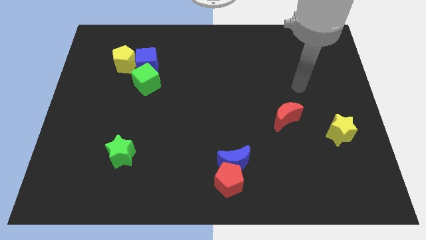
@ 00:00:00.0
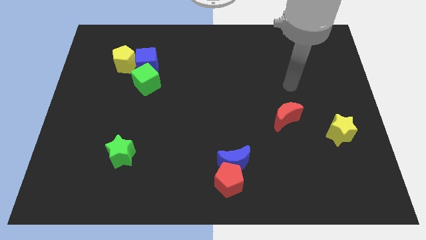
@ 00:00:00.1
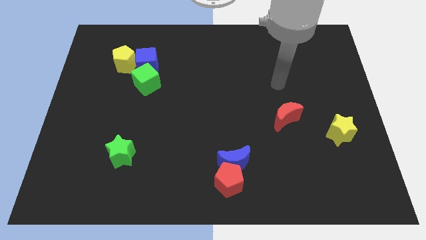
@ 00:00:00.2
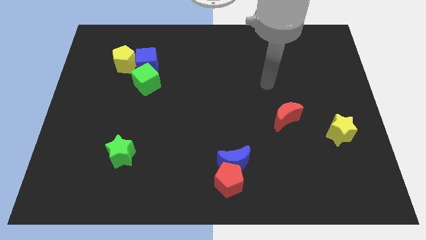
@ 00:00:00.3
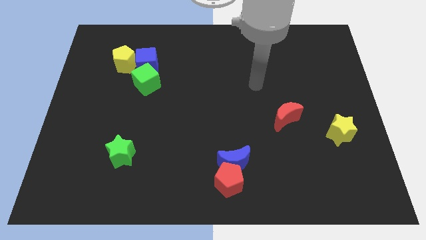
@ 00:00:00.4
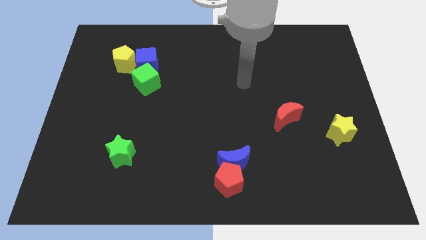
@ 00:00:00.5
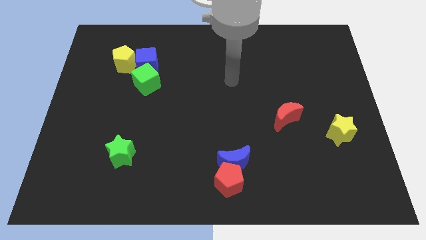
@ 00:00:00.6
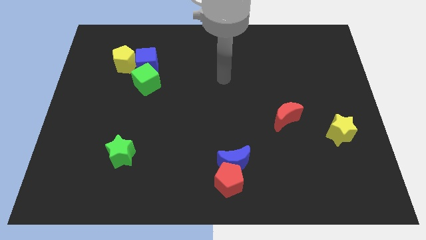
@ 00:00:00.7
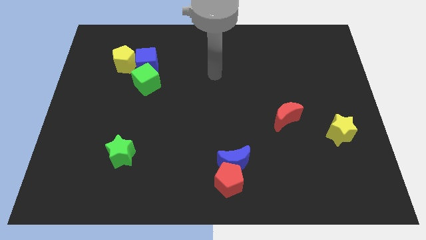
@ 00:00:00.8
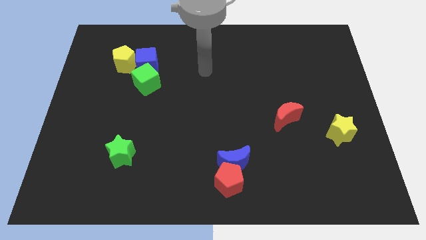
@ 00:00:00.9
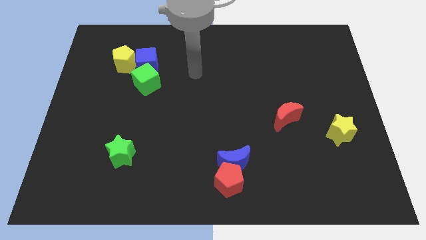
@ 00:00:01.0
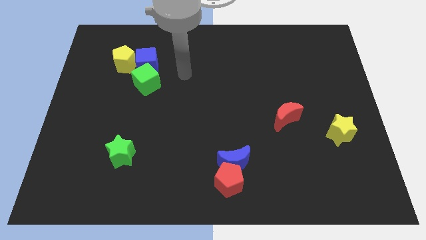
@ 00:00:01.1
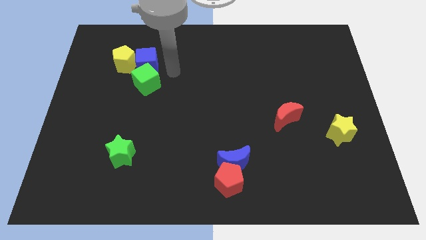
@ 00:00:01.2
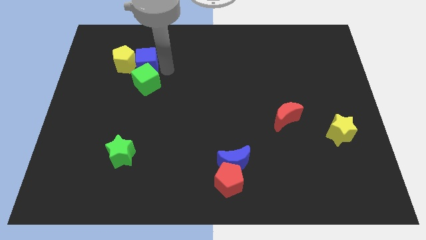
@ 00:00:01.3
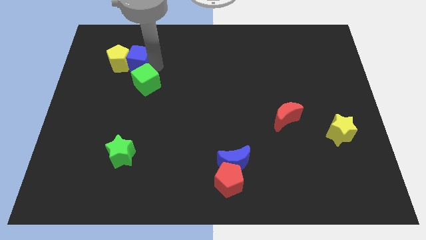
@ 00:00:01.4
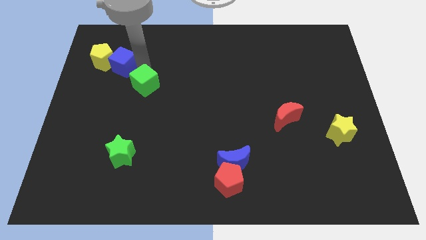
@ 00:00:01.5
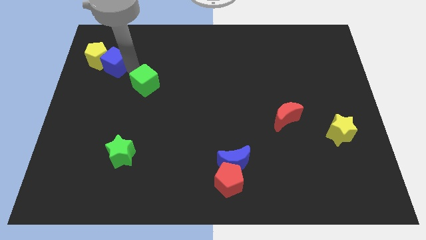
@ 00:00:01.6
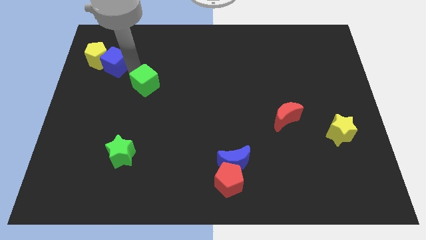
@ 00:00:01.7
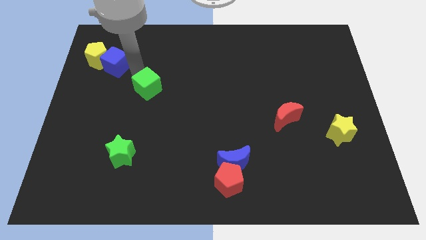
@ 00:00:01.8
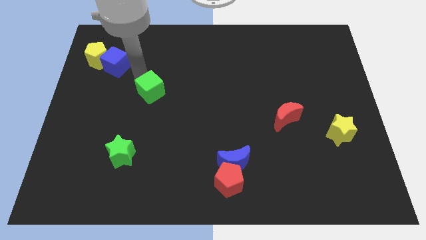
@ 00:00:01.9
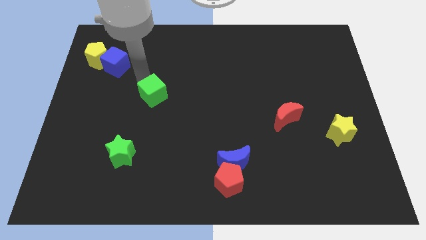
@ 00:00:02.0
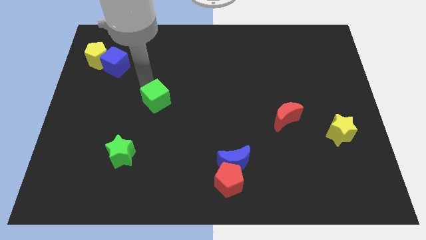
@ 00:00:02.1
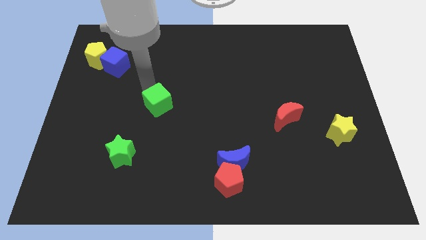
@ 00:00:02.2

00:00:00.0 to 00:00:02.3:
move the green cube somewhat downwards and then to the right

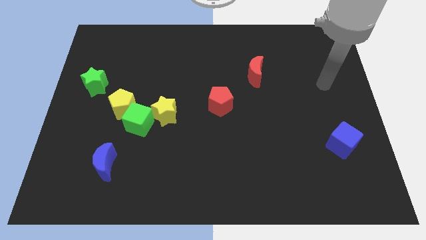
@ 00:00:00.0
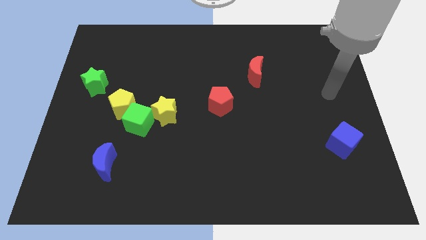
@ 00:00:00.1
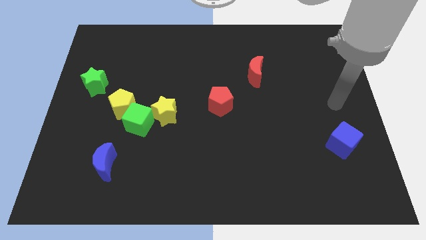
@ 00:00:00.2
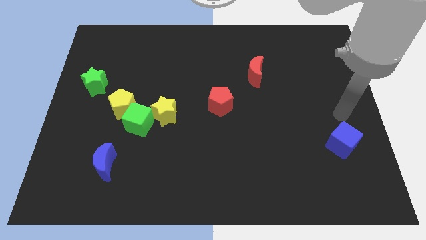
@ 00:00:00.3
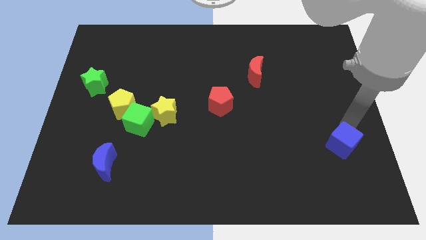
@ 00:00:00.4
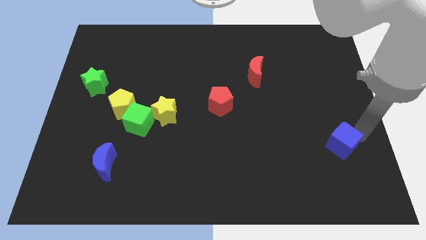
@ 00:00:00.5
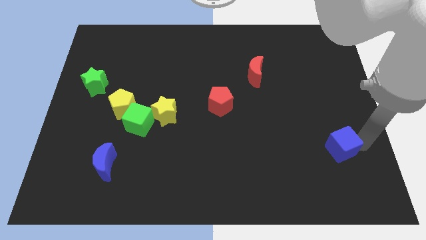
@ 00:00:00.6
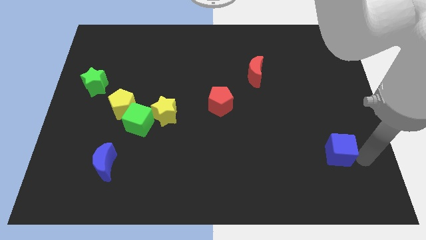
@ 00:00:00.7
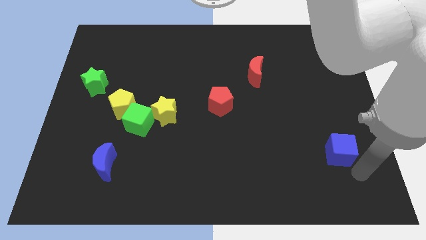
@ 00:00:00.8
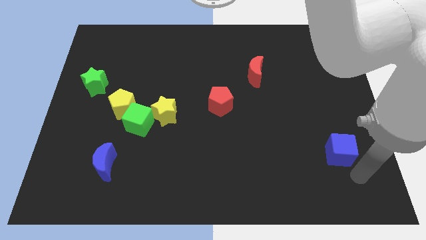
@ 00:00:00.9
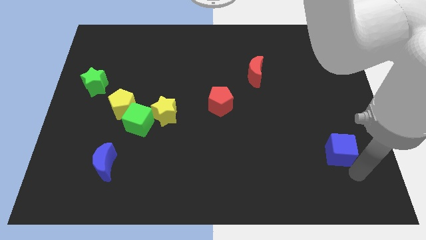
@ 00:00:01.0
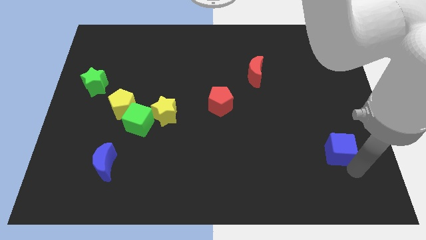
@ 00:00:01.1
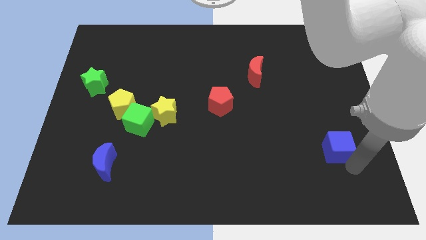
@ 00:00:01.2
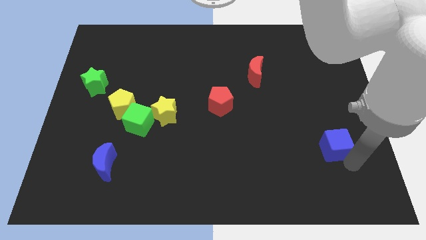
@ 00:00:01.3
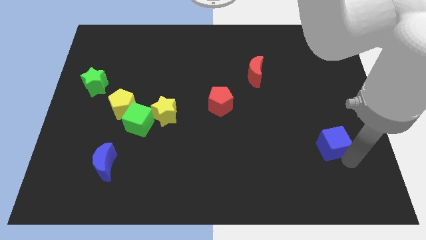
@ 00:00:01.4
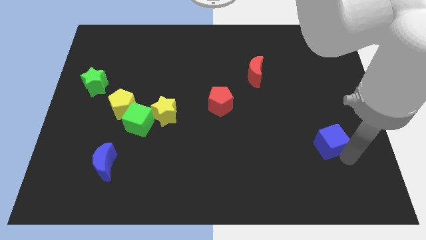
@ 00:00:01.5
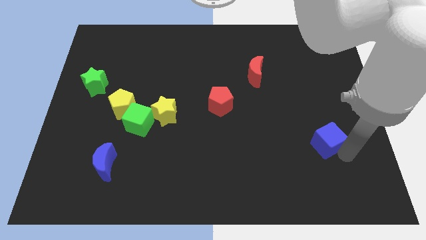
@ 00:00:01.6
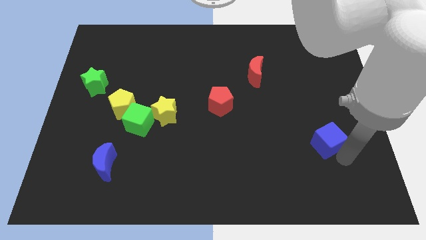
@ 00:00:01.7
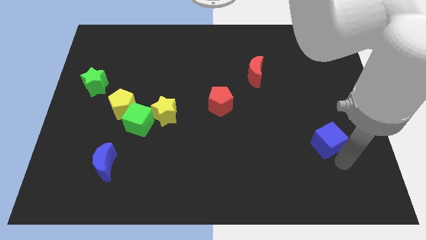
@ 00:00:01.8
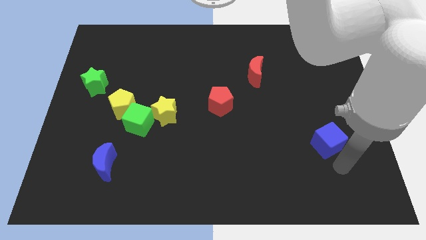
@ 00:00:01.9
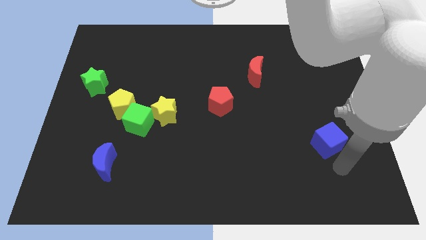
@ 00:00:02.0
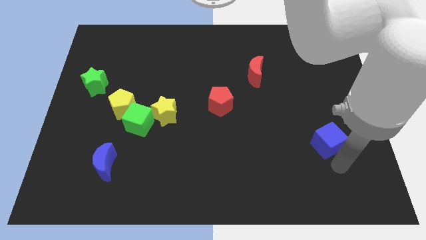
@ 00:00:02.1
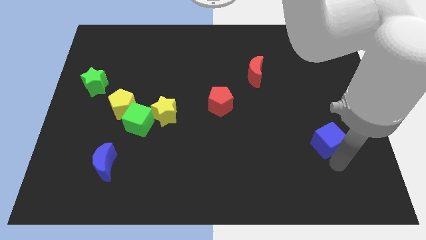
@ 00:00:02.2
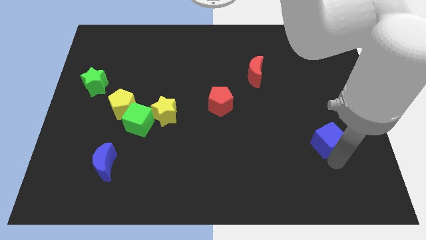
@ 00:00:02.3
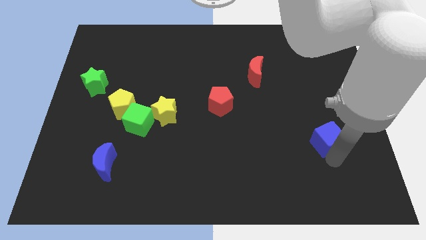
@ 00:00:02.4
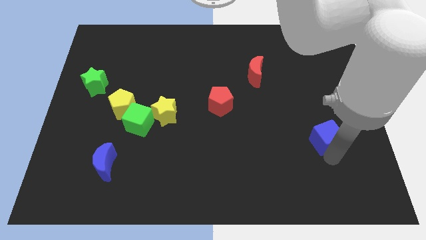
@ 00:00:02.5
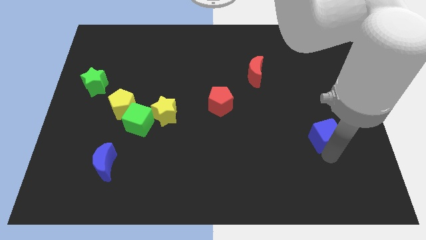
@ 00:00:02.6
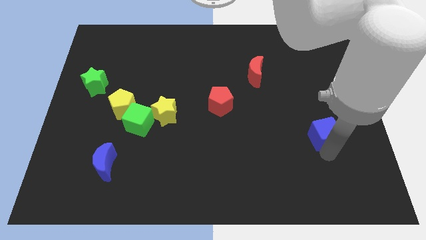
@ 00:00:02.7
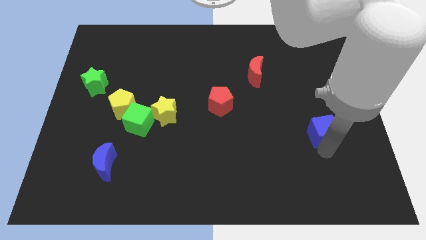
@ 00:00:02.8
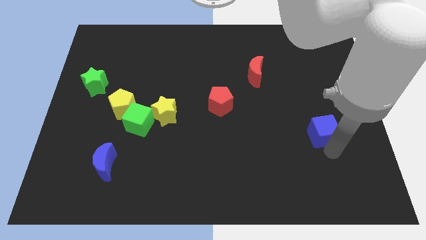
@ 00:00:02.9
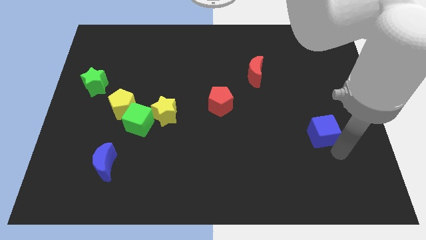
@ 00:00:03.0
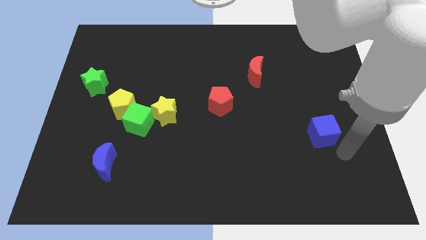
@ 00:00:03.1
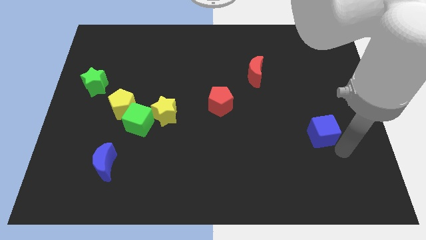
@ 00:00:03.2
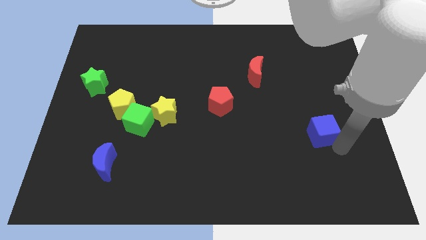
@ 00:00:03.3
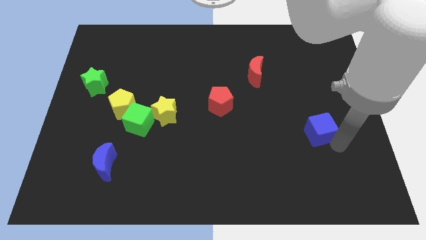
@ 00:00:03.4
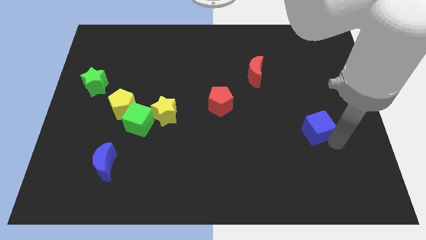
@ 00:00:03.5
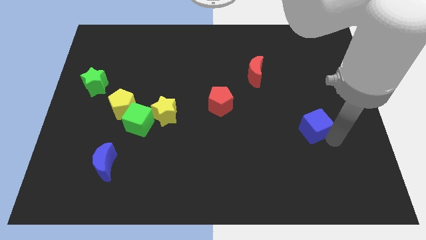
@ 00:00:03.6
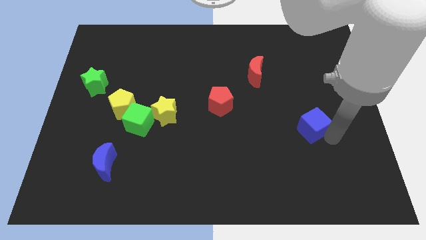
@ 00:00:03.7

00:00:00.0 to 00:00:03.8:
slightly slide the blue cube up and to the left diagonally

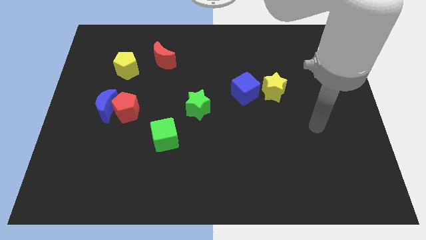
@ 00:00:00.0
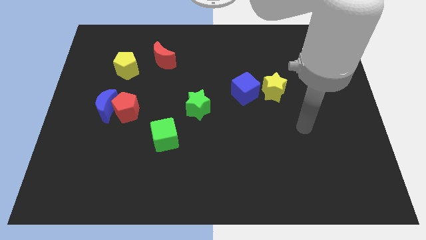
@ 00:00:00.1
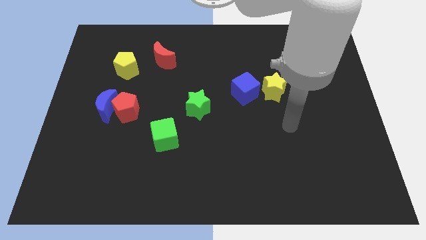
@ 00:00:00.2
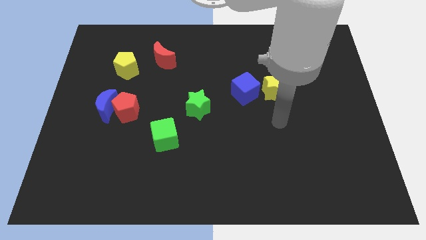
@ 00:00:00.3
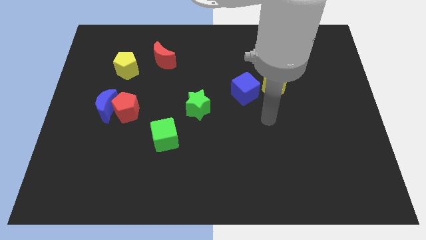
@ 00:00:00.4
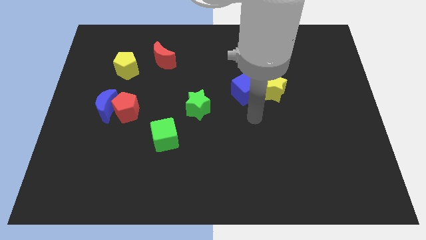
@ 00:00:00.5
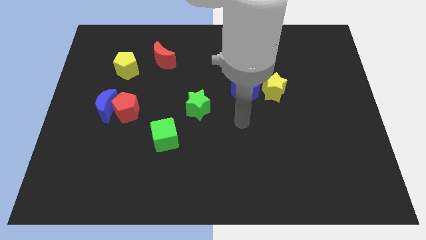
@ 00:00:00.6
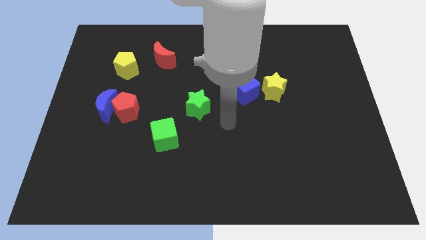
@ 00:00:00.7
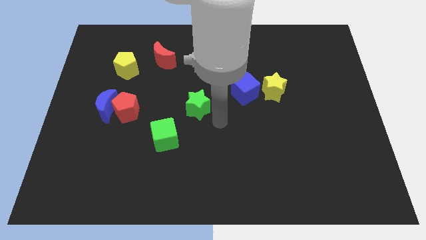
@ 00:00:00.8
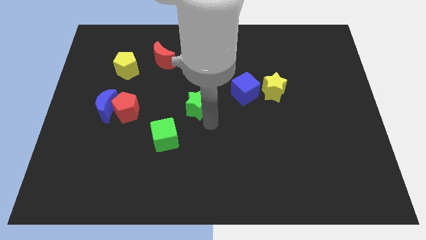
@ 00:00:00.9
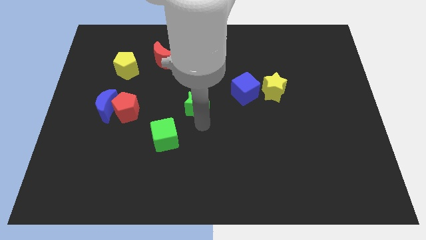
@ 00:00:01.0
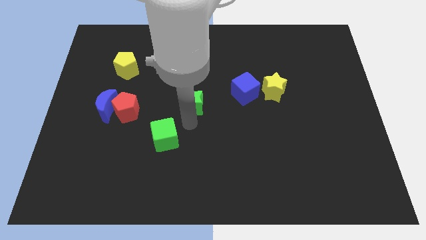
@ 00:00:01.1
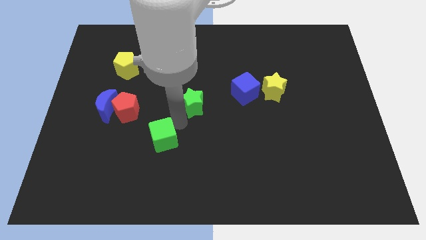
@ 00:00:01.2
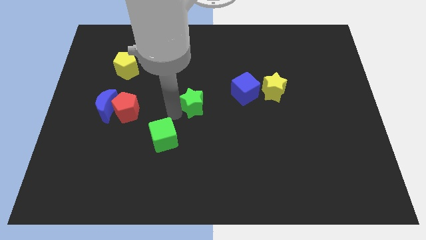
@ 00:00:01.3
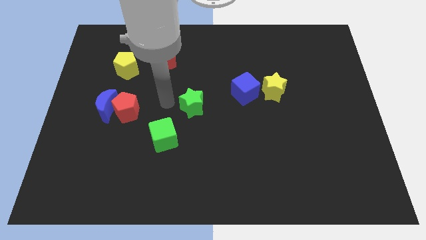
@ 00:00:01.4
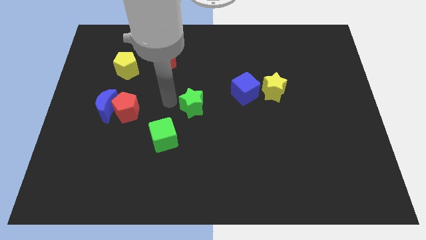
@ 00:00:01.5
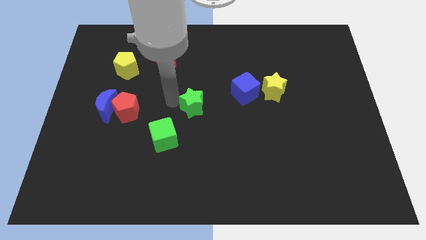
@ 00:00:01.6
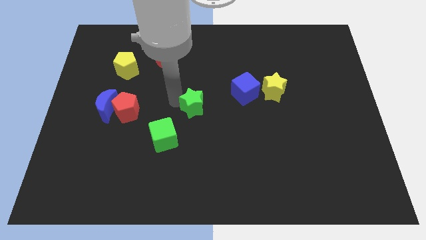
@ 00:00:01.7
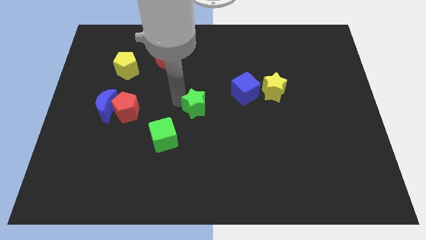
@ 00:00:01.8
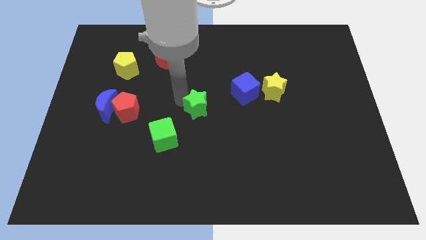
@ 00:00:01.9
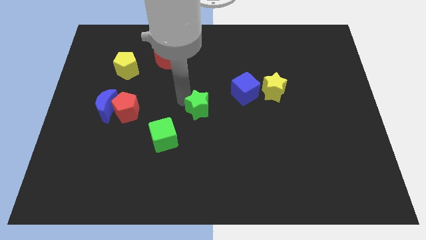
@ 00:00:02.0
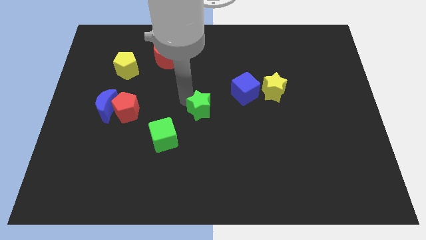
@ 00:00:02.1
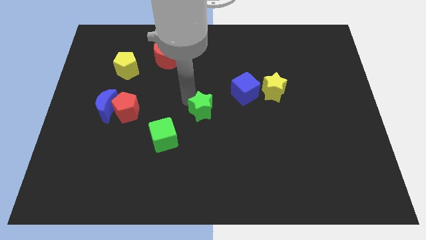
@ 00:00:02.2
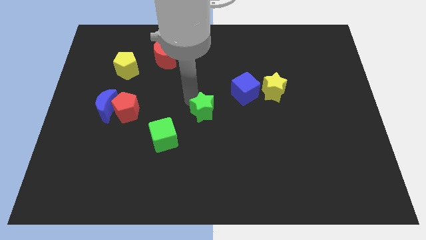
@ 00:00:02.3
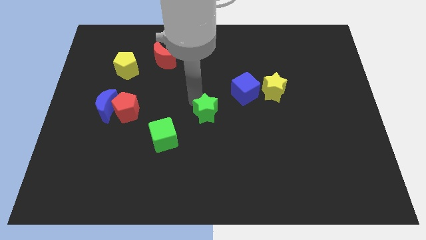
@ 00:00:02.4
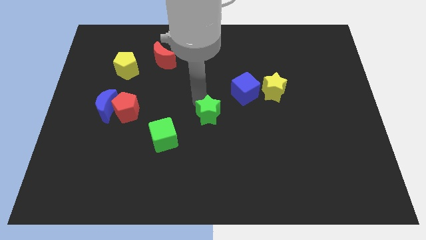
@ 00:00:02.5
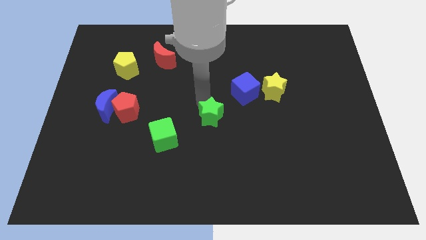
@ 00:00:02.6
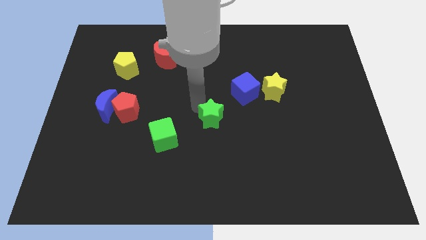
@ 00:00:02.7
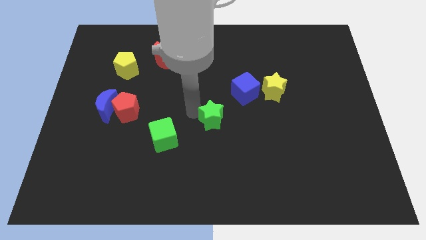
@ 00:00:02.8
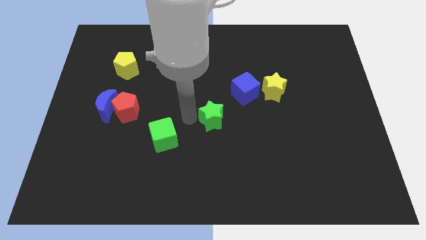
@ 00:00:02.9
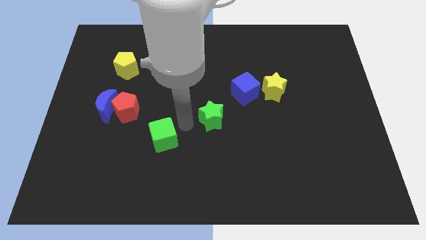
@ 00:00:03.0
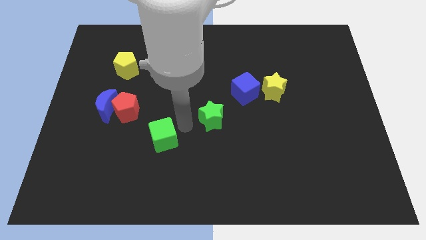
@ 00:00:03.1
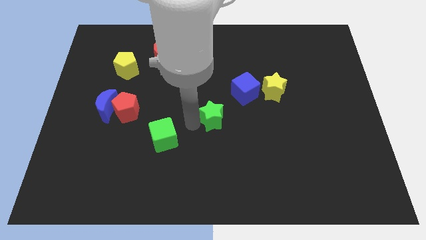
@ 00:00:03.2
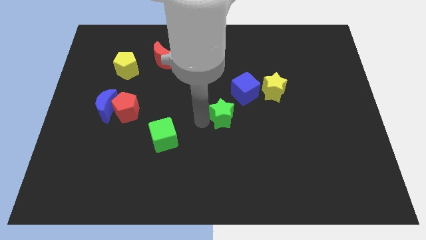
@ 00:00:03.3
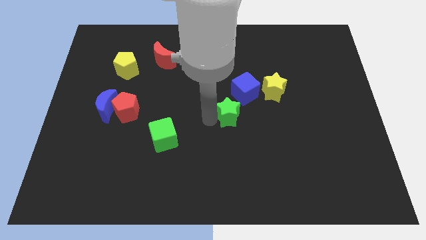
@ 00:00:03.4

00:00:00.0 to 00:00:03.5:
push the green star a bit to the right
